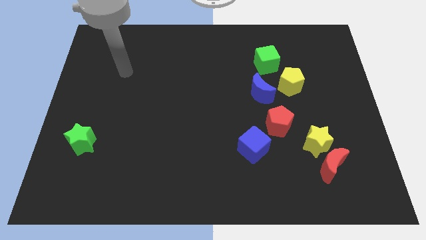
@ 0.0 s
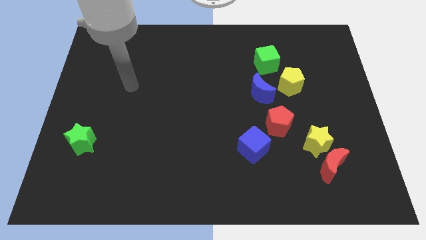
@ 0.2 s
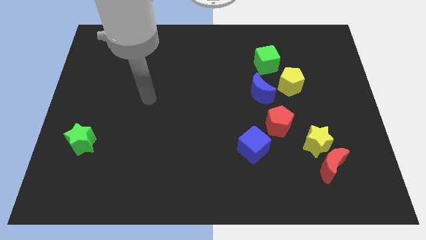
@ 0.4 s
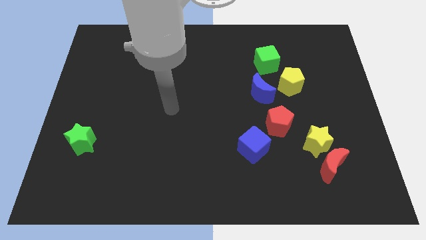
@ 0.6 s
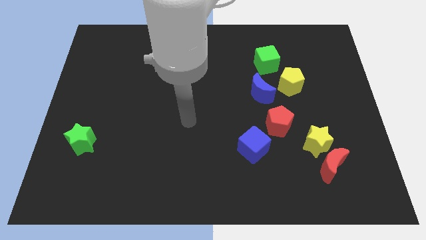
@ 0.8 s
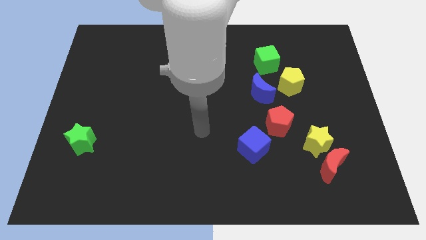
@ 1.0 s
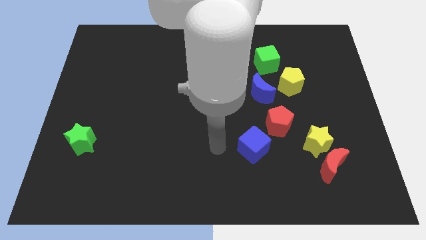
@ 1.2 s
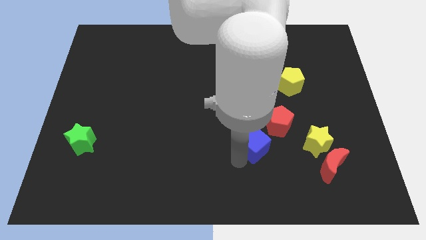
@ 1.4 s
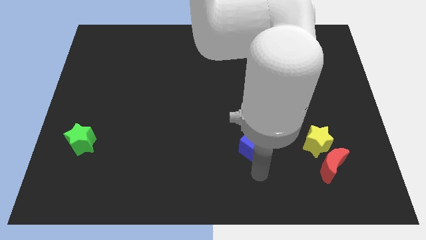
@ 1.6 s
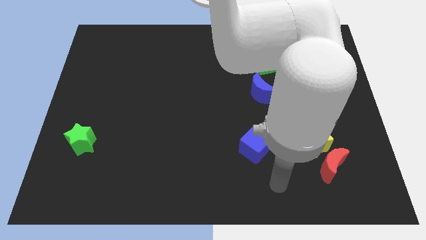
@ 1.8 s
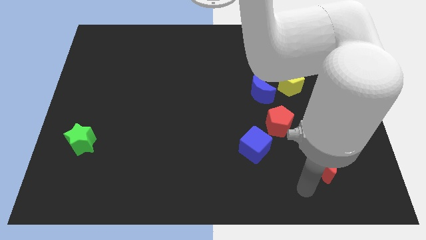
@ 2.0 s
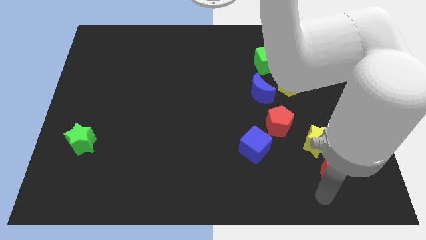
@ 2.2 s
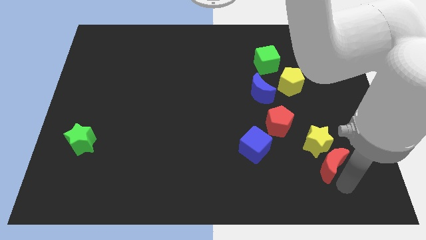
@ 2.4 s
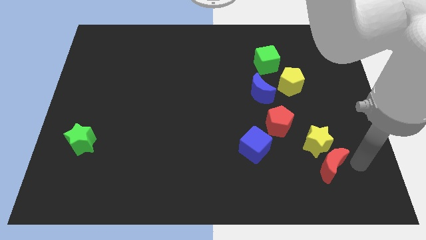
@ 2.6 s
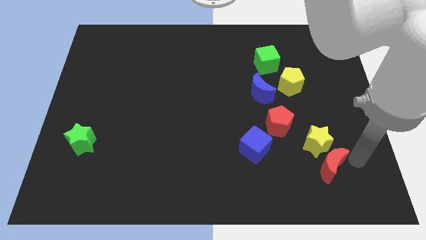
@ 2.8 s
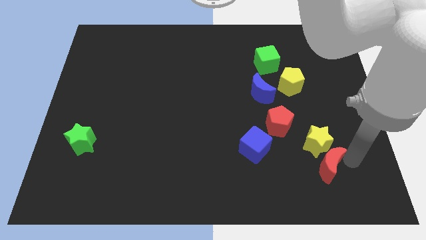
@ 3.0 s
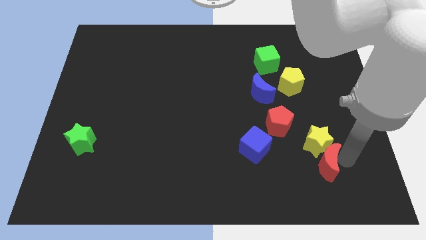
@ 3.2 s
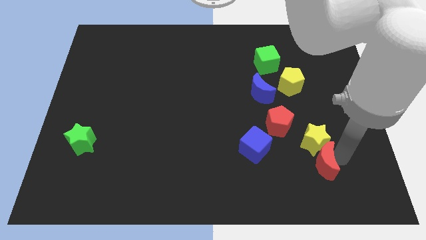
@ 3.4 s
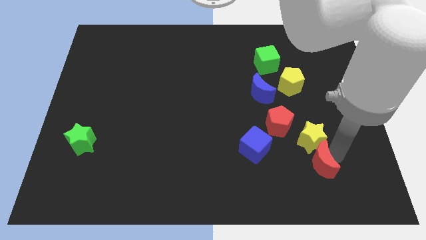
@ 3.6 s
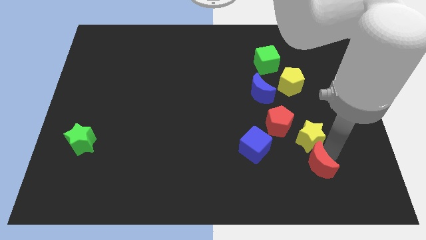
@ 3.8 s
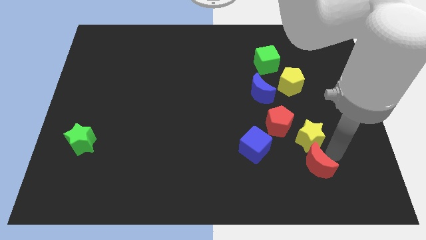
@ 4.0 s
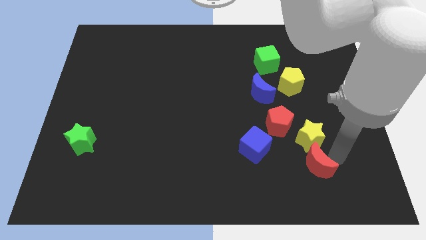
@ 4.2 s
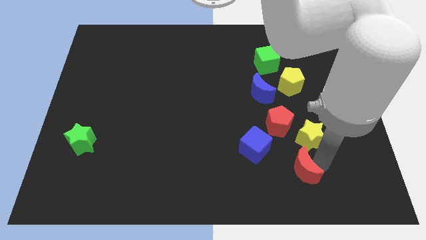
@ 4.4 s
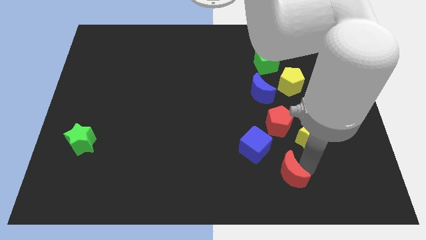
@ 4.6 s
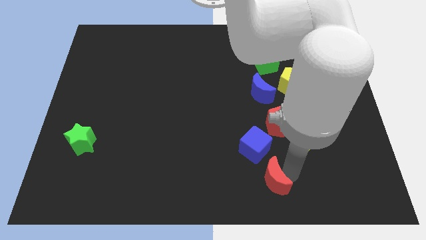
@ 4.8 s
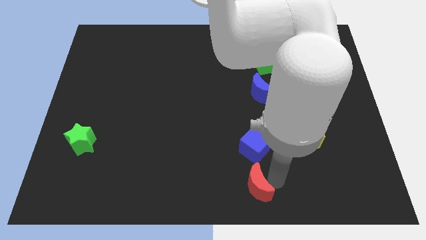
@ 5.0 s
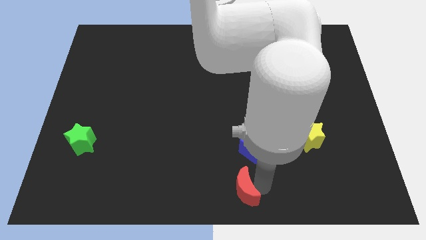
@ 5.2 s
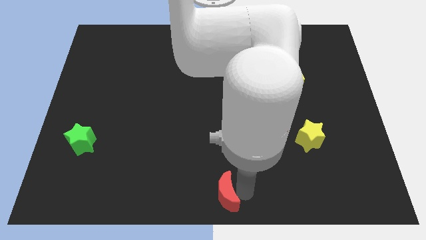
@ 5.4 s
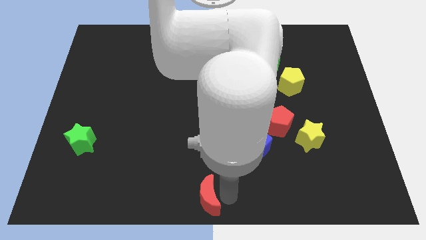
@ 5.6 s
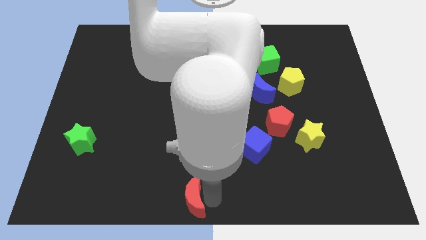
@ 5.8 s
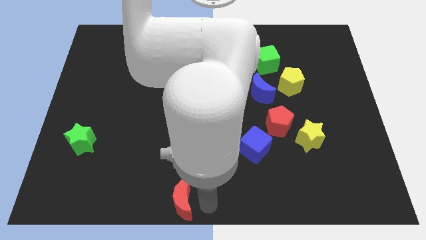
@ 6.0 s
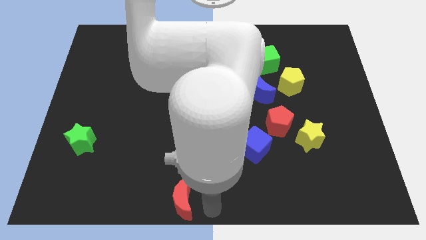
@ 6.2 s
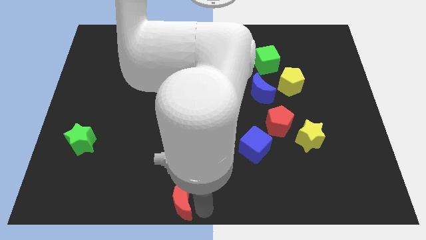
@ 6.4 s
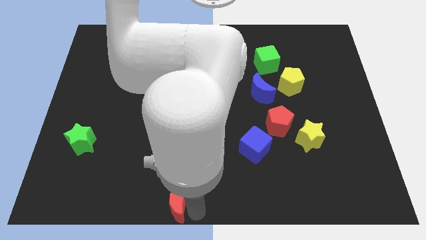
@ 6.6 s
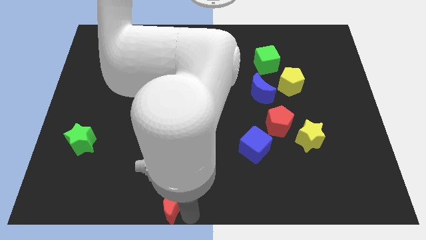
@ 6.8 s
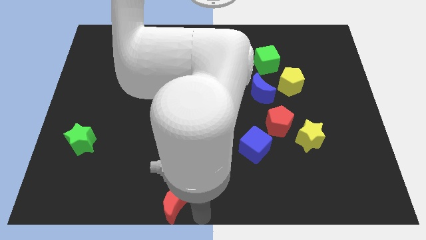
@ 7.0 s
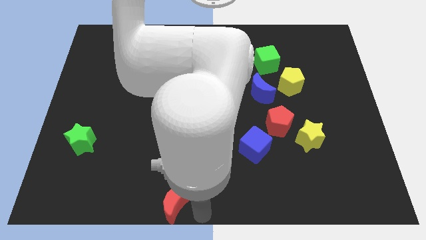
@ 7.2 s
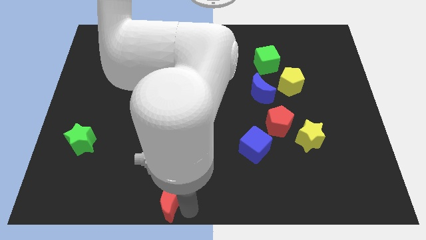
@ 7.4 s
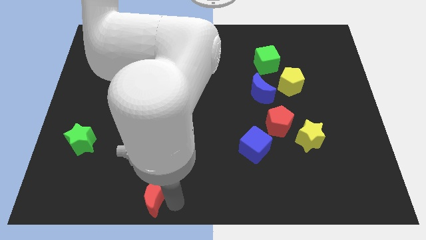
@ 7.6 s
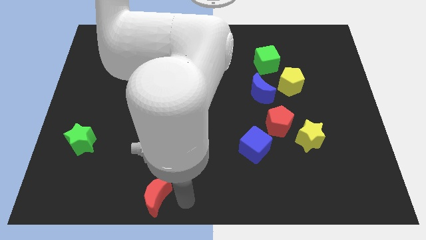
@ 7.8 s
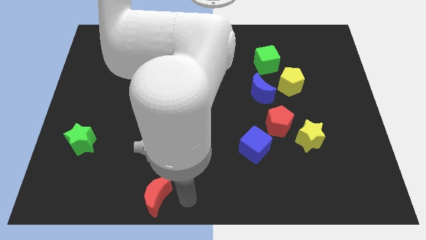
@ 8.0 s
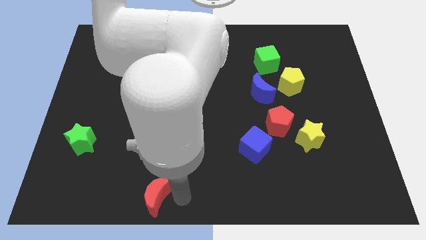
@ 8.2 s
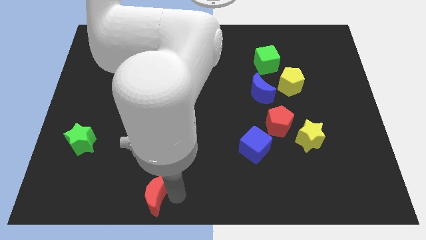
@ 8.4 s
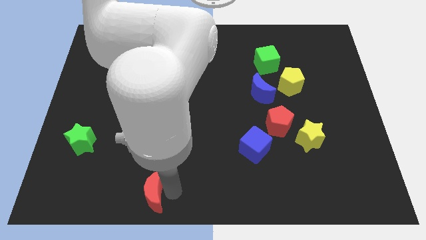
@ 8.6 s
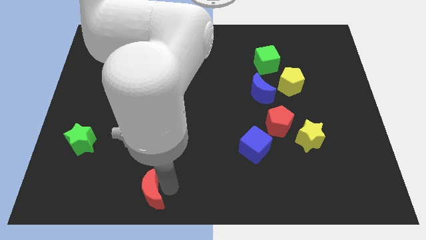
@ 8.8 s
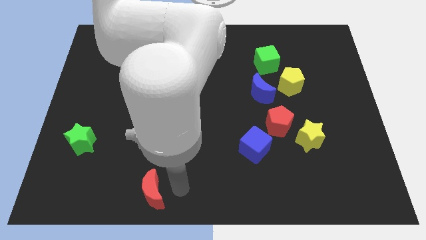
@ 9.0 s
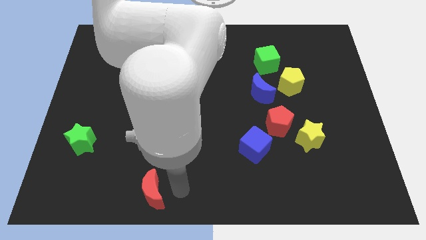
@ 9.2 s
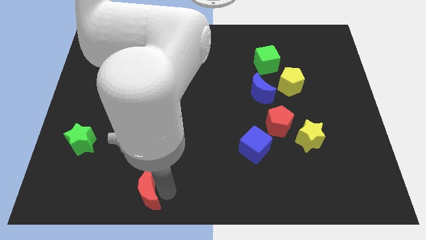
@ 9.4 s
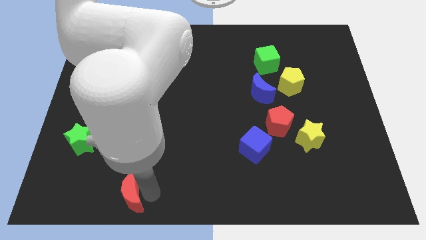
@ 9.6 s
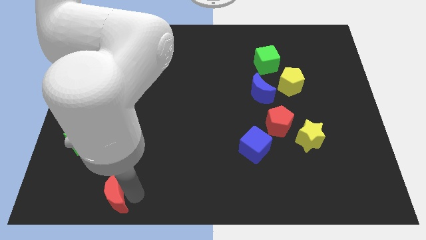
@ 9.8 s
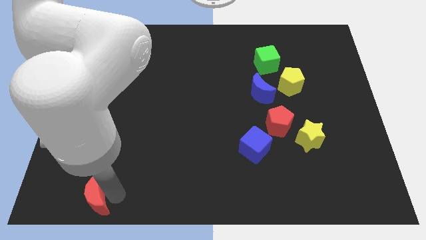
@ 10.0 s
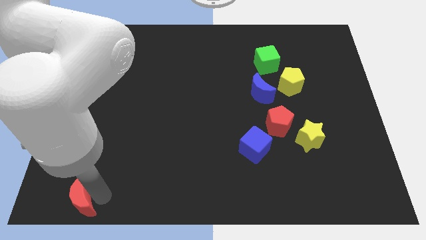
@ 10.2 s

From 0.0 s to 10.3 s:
push the red moon to the lower left corner

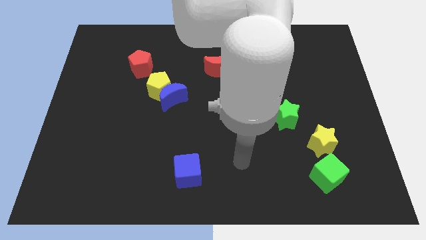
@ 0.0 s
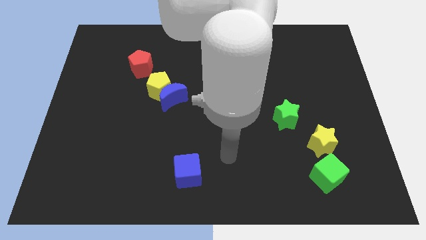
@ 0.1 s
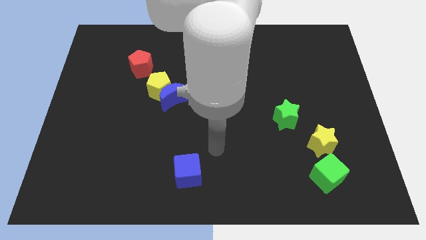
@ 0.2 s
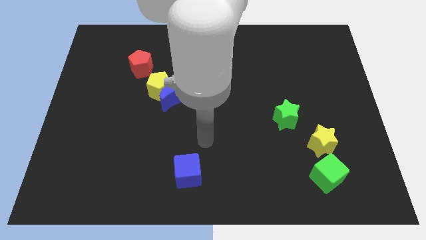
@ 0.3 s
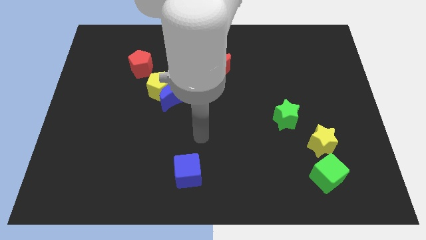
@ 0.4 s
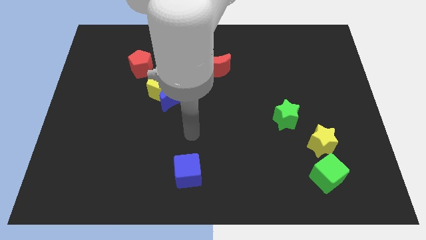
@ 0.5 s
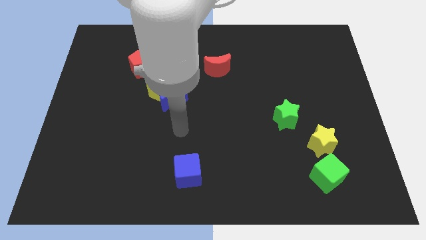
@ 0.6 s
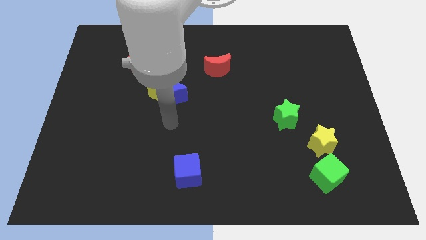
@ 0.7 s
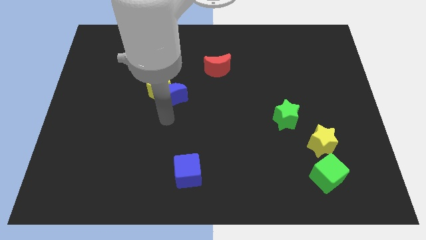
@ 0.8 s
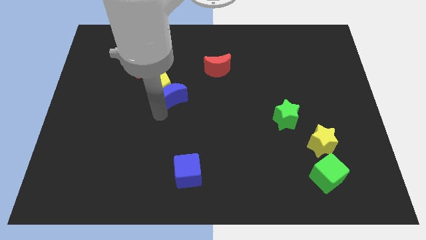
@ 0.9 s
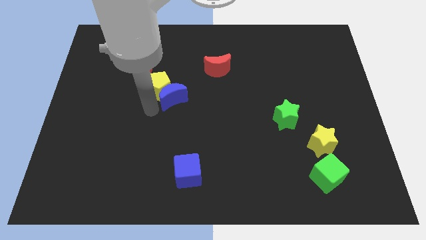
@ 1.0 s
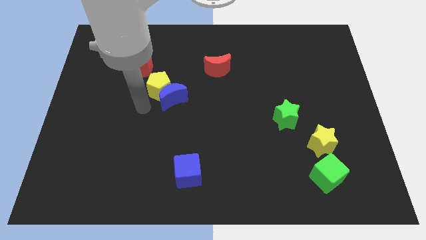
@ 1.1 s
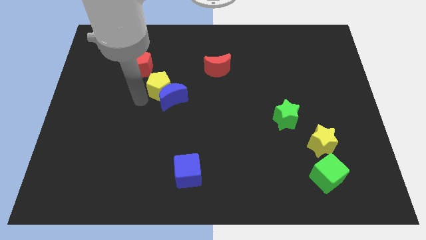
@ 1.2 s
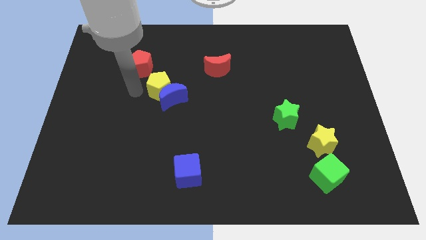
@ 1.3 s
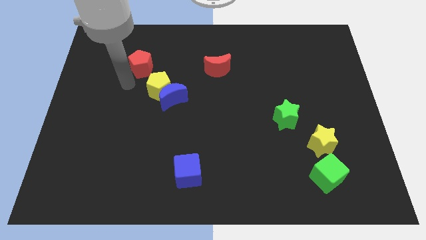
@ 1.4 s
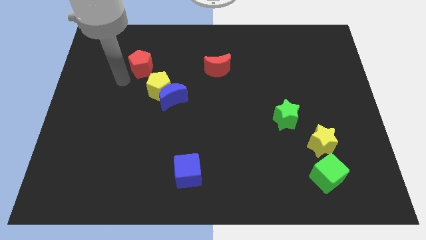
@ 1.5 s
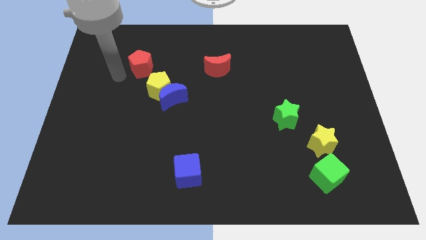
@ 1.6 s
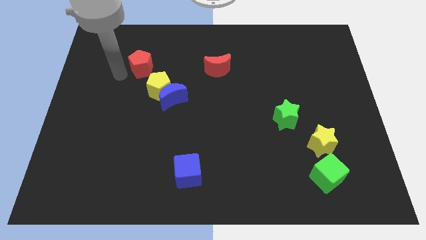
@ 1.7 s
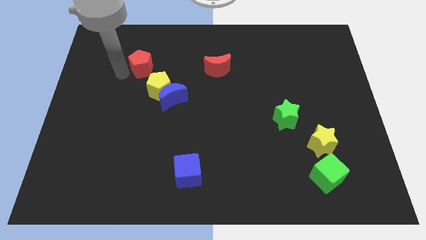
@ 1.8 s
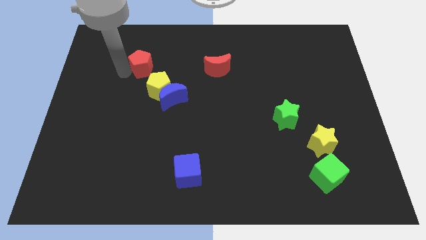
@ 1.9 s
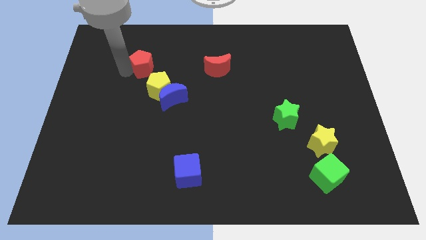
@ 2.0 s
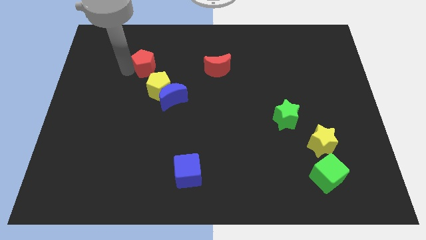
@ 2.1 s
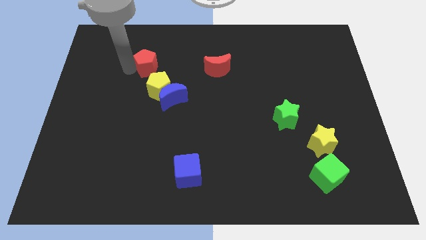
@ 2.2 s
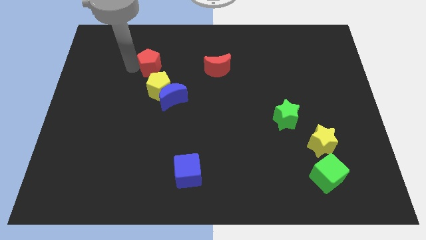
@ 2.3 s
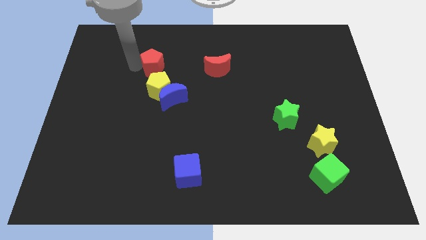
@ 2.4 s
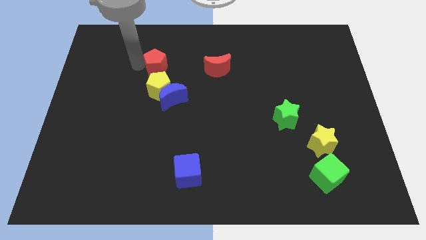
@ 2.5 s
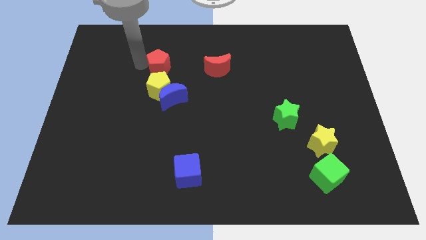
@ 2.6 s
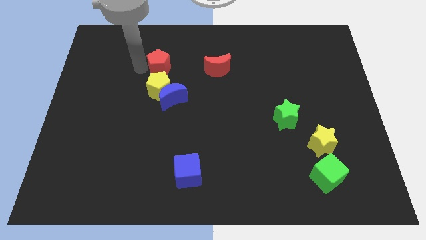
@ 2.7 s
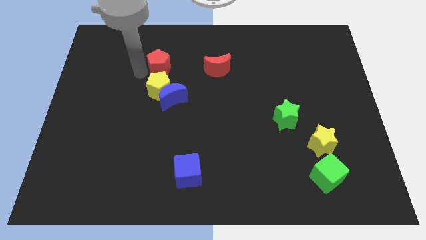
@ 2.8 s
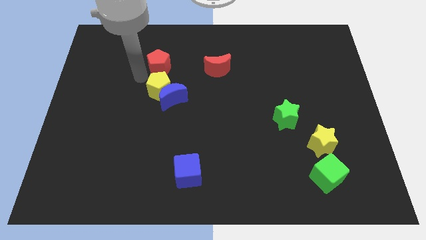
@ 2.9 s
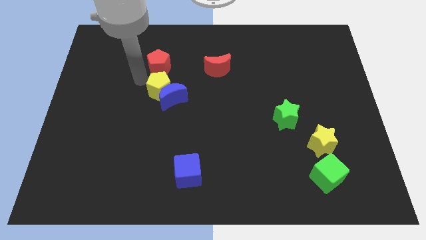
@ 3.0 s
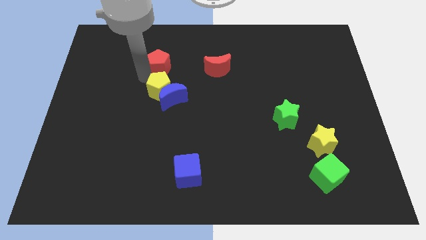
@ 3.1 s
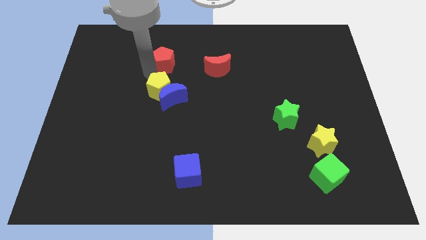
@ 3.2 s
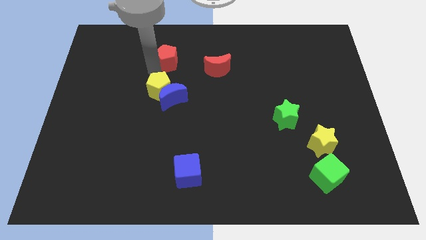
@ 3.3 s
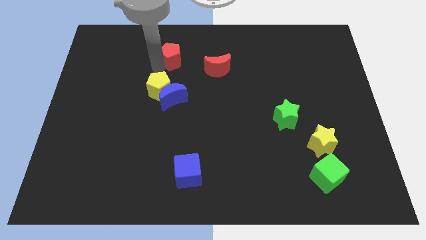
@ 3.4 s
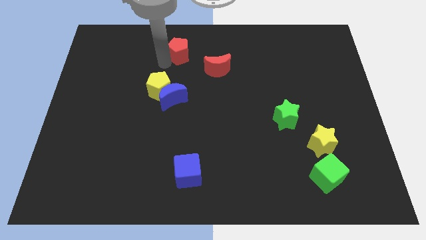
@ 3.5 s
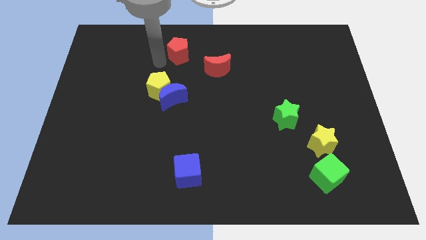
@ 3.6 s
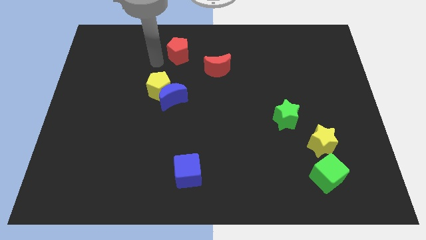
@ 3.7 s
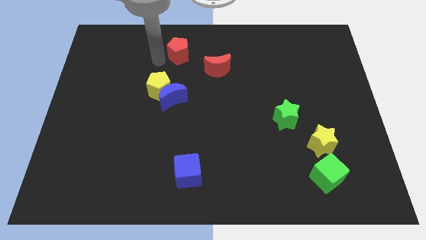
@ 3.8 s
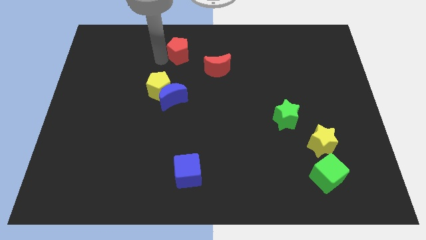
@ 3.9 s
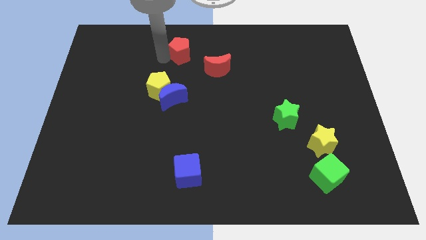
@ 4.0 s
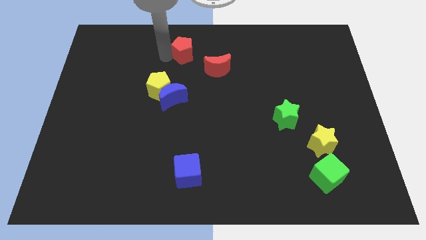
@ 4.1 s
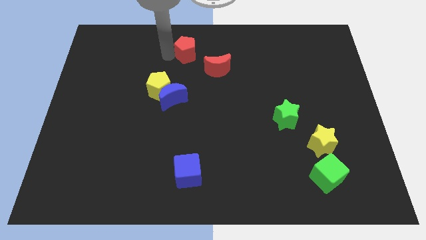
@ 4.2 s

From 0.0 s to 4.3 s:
put the red pentagon to the top side
